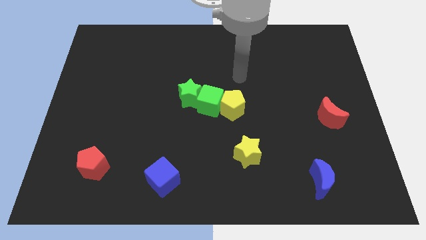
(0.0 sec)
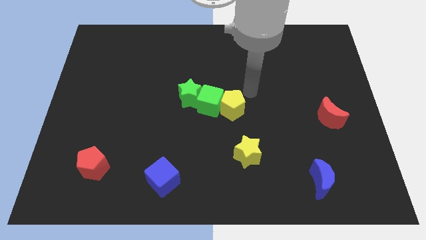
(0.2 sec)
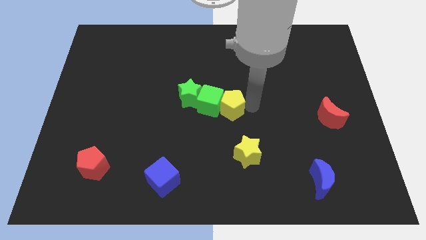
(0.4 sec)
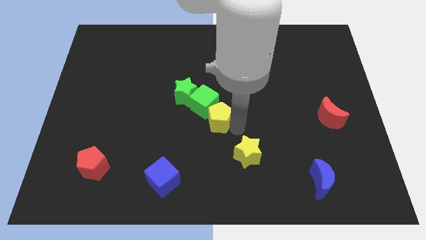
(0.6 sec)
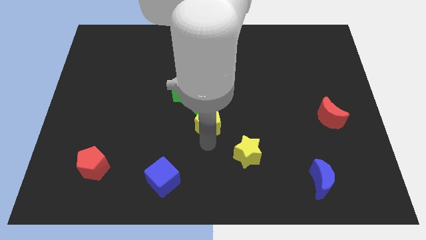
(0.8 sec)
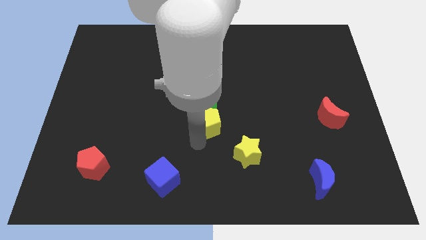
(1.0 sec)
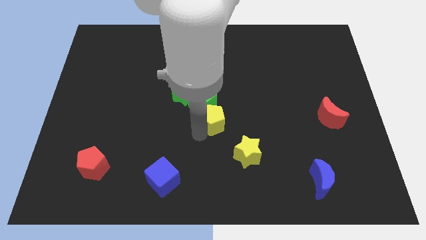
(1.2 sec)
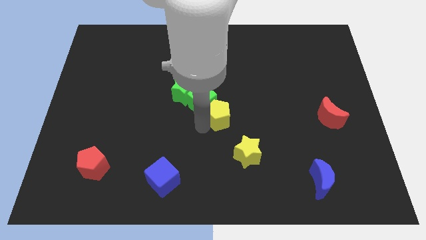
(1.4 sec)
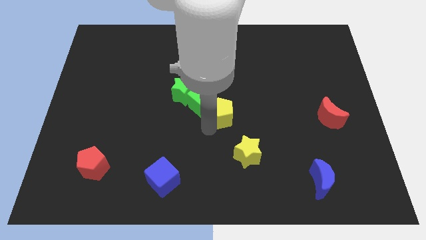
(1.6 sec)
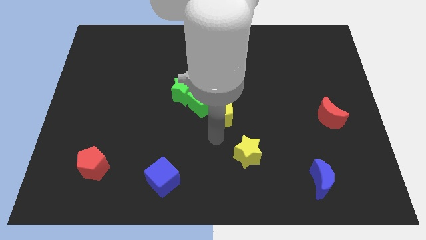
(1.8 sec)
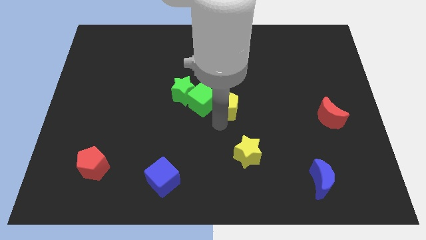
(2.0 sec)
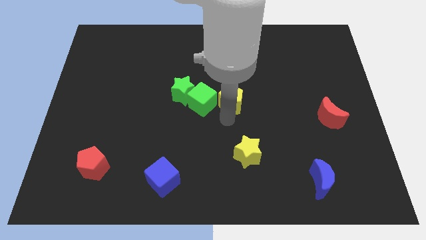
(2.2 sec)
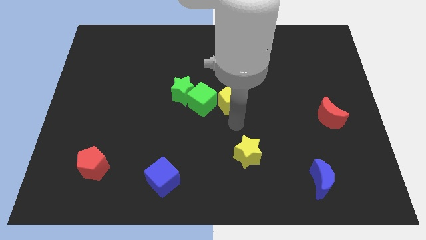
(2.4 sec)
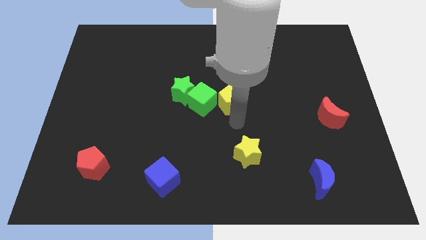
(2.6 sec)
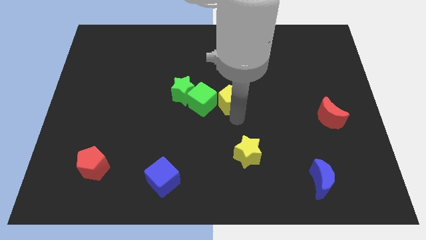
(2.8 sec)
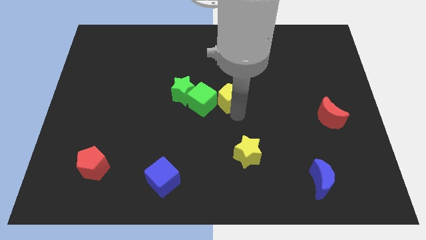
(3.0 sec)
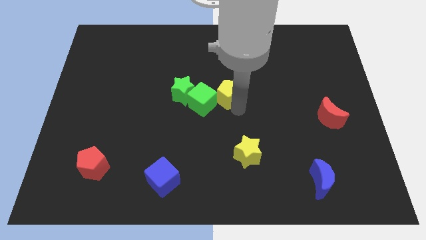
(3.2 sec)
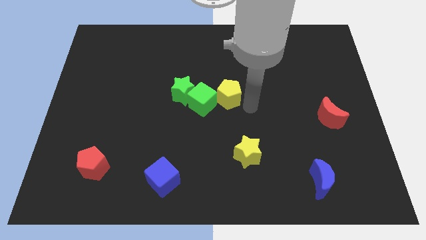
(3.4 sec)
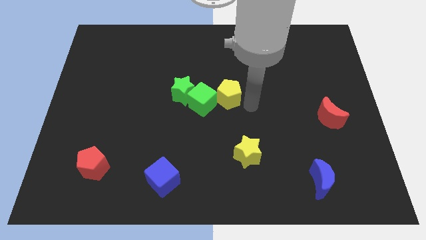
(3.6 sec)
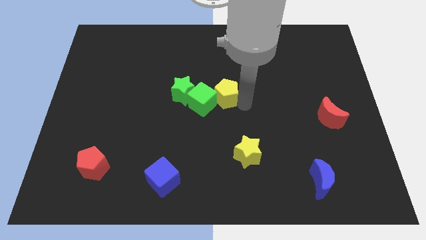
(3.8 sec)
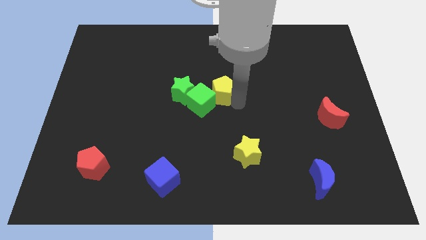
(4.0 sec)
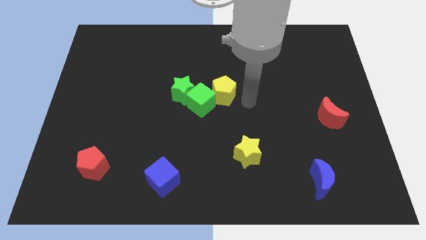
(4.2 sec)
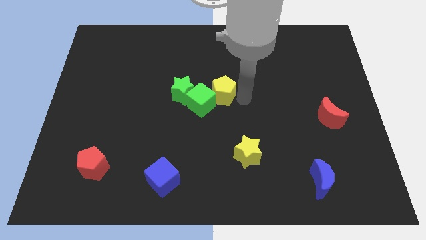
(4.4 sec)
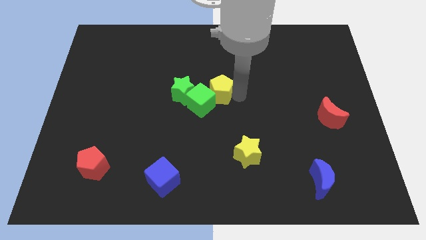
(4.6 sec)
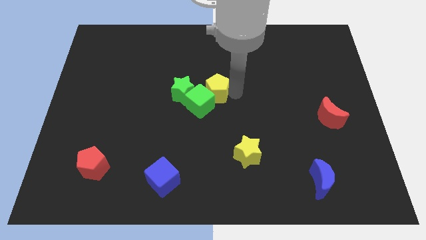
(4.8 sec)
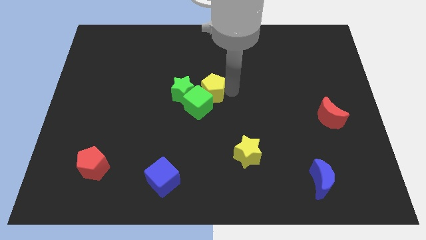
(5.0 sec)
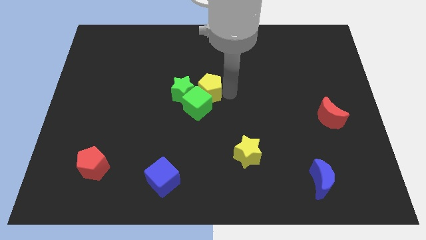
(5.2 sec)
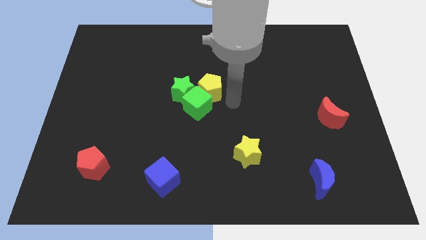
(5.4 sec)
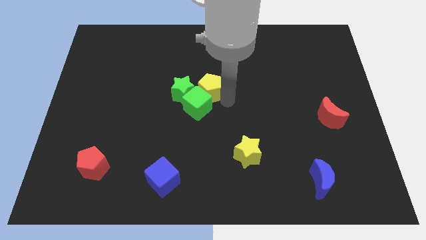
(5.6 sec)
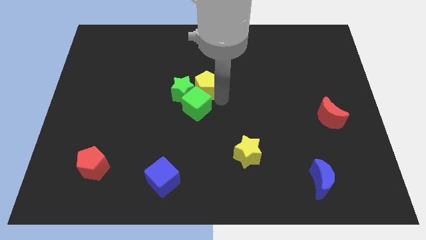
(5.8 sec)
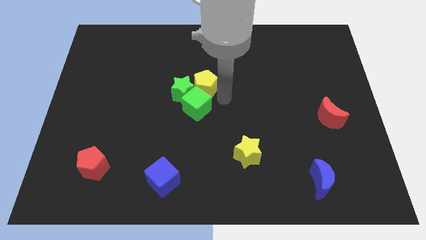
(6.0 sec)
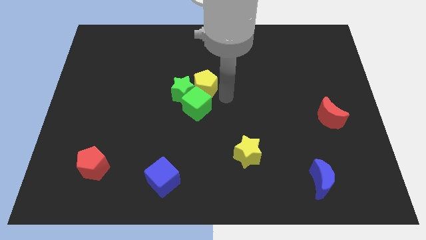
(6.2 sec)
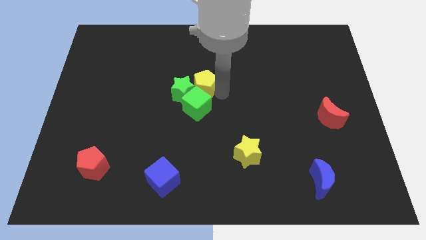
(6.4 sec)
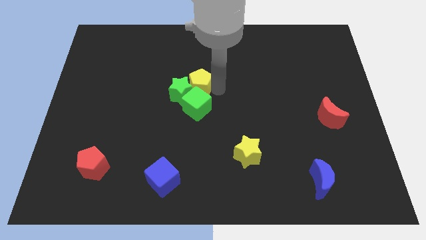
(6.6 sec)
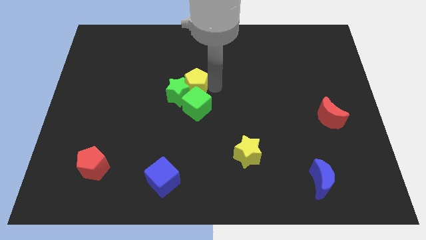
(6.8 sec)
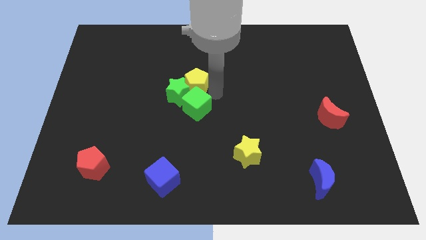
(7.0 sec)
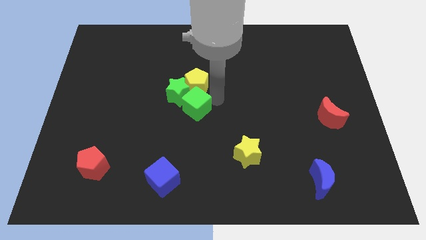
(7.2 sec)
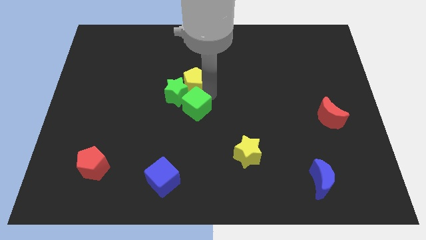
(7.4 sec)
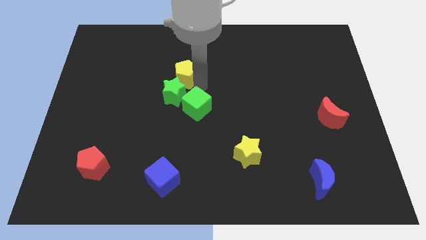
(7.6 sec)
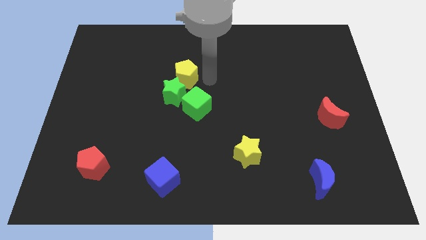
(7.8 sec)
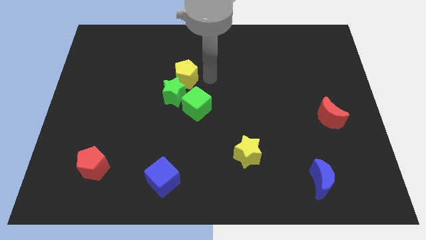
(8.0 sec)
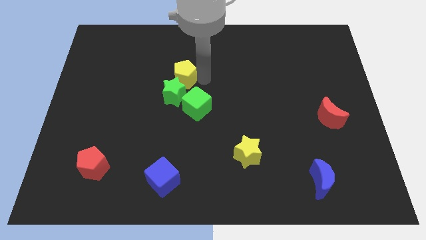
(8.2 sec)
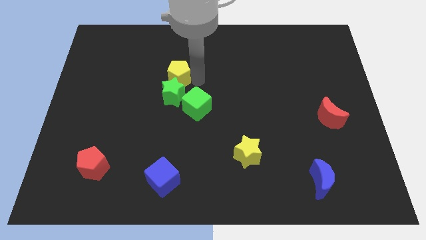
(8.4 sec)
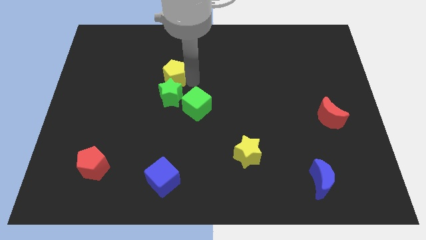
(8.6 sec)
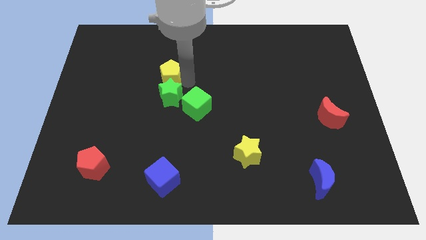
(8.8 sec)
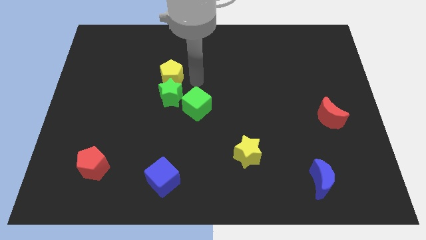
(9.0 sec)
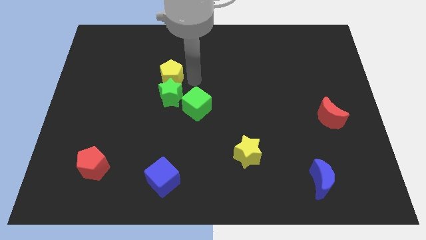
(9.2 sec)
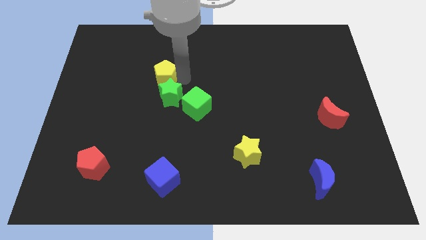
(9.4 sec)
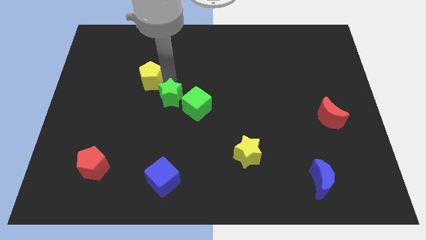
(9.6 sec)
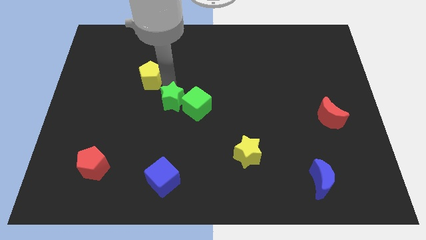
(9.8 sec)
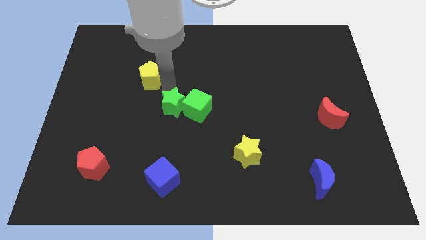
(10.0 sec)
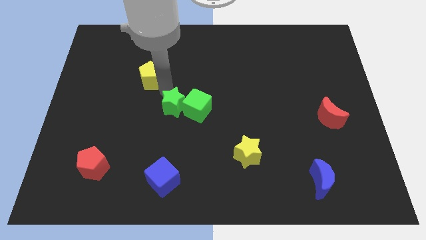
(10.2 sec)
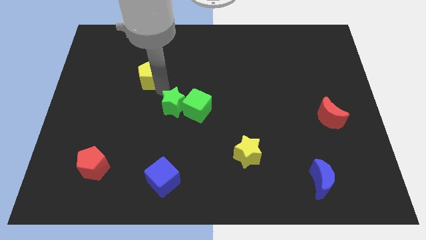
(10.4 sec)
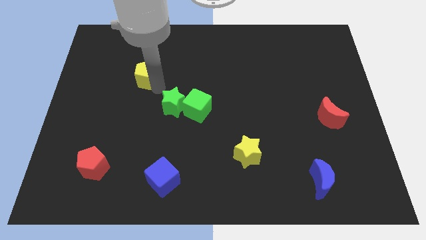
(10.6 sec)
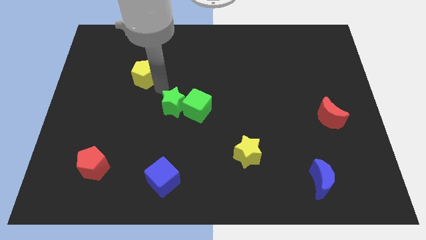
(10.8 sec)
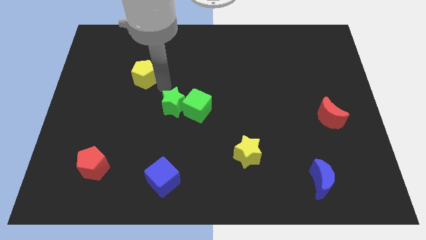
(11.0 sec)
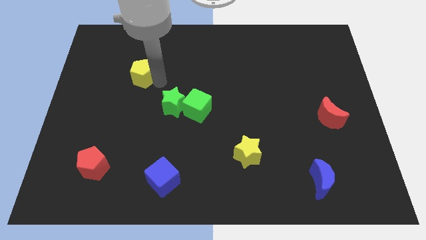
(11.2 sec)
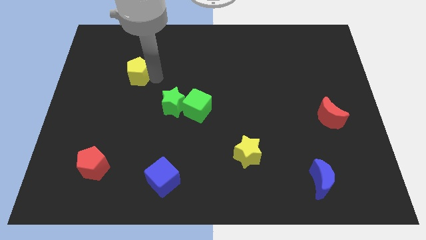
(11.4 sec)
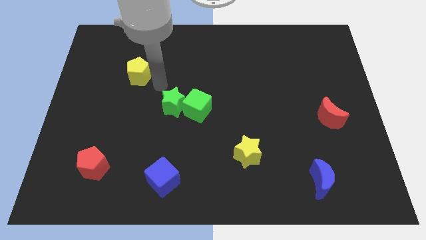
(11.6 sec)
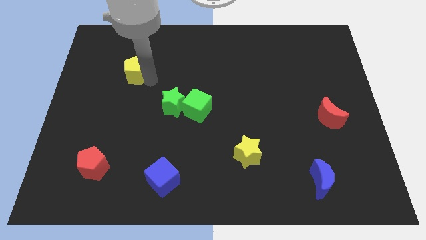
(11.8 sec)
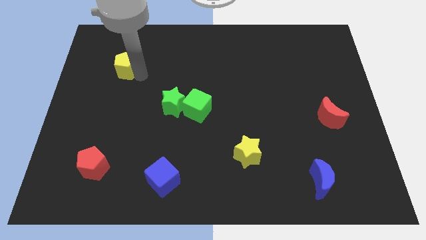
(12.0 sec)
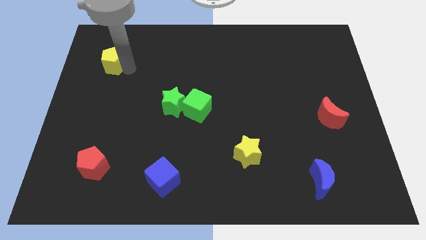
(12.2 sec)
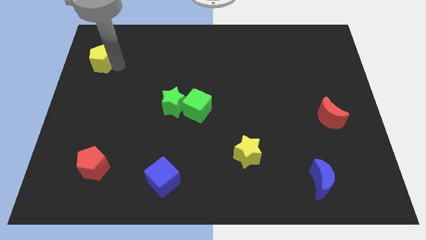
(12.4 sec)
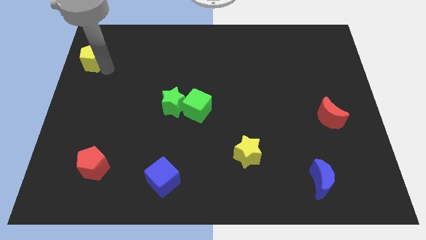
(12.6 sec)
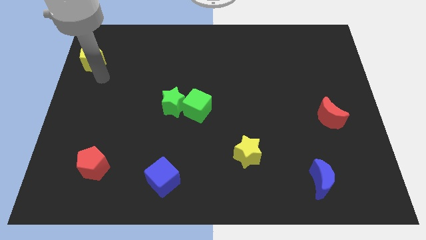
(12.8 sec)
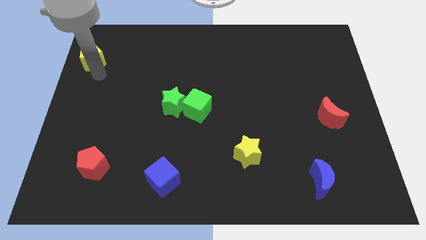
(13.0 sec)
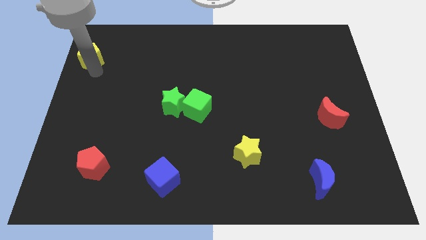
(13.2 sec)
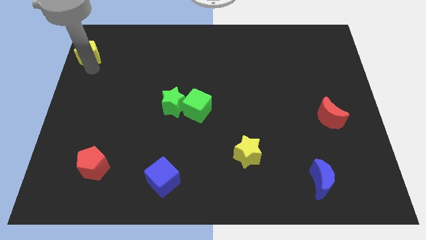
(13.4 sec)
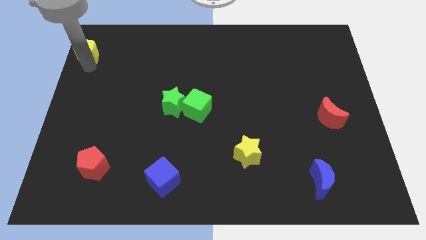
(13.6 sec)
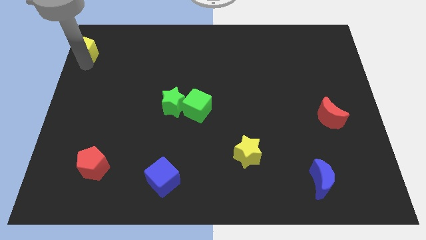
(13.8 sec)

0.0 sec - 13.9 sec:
put the yellow pentagon to the top left corner
